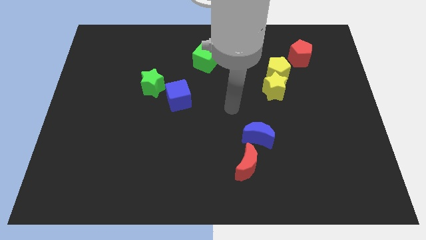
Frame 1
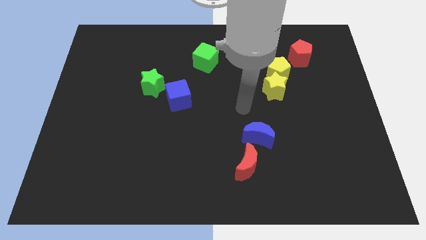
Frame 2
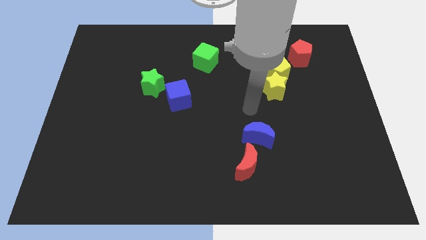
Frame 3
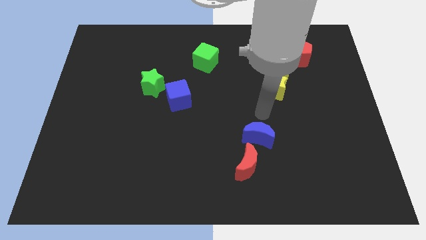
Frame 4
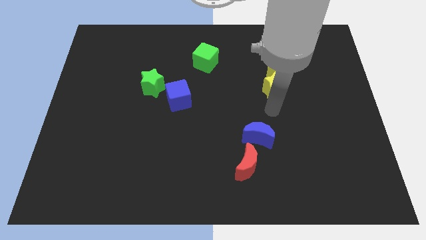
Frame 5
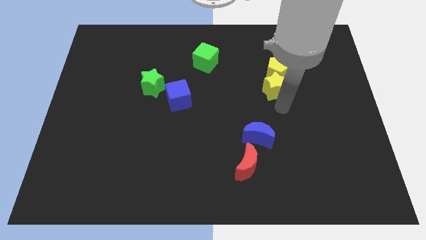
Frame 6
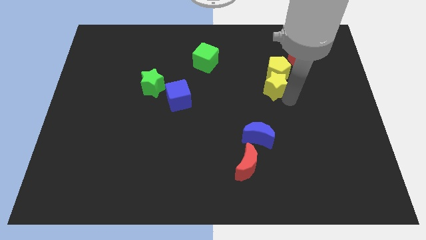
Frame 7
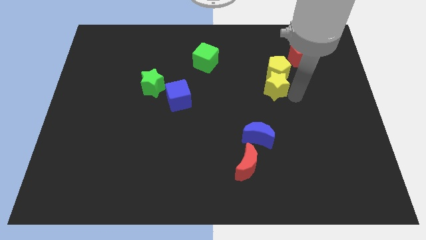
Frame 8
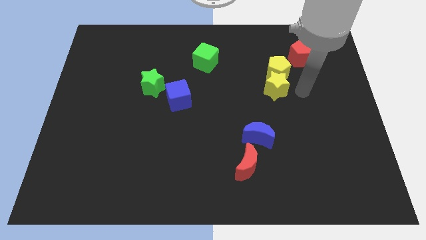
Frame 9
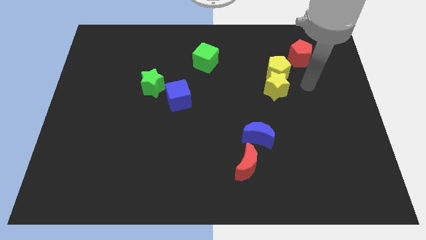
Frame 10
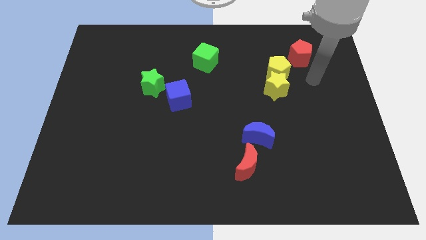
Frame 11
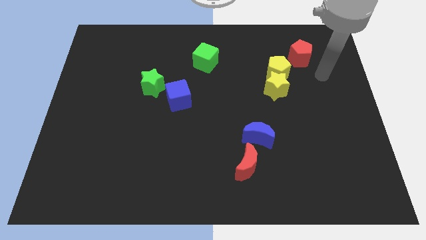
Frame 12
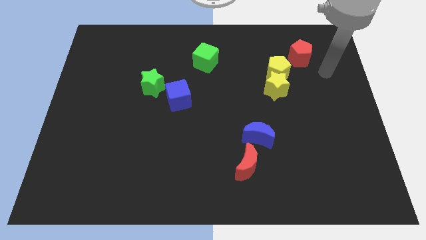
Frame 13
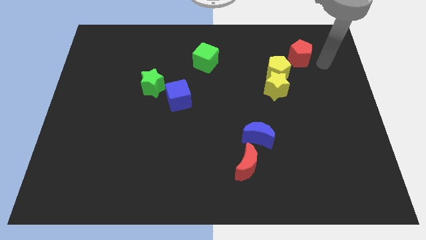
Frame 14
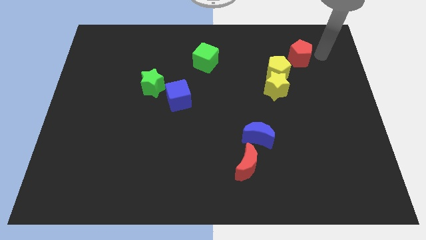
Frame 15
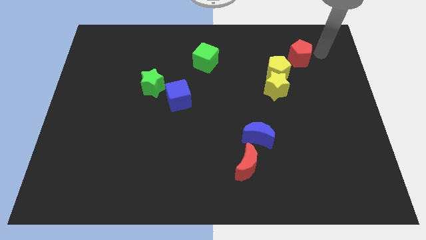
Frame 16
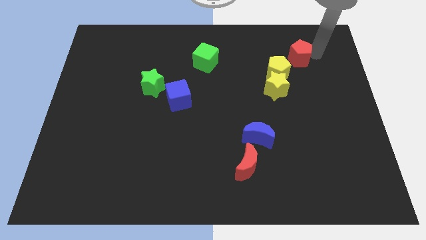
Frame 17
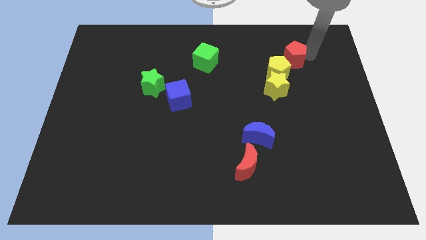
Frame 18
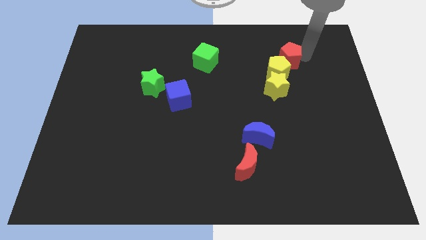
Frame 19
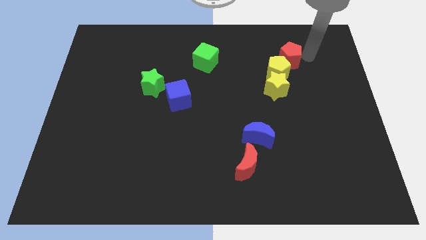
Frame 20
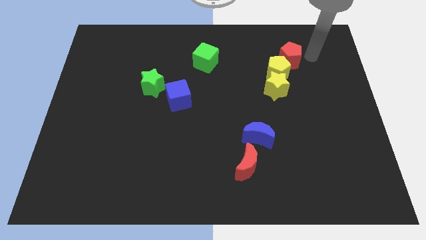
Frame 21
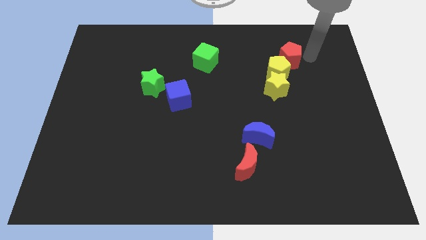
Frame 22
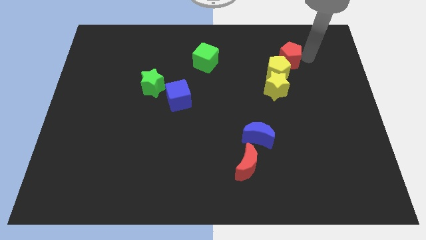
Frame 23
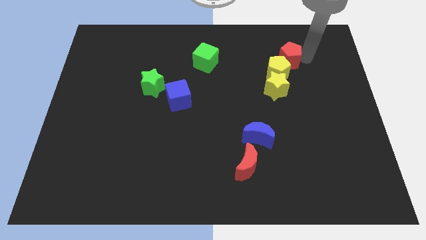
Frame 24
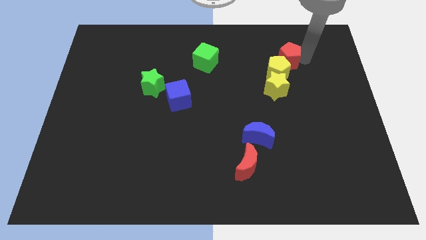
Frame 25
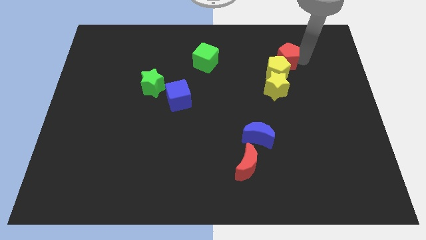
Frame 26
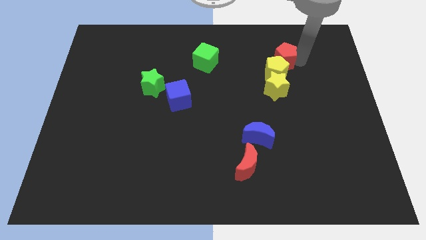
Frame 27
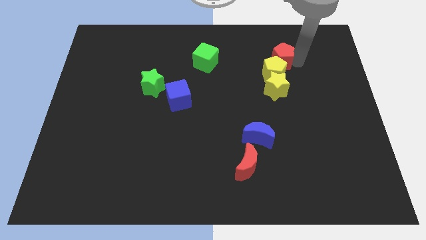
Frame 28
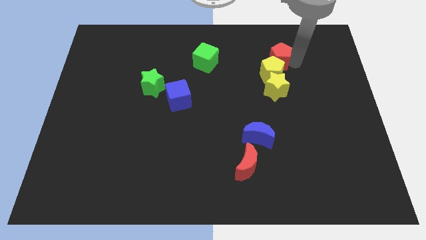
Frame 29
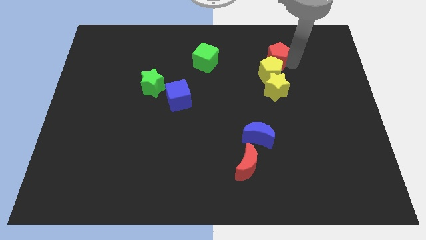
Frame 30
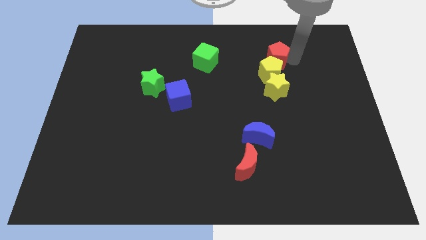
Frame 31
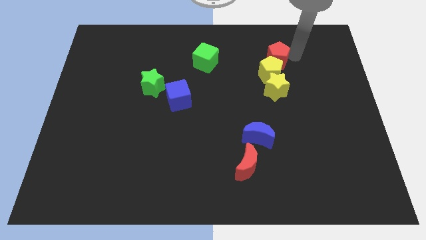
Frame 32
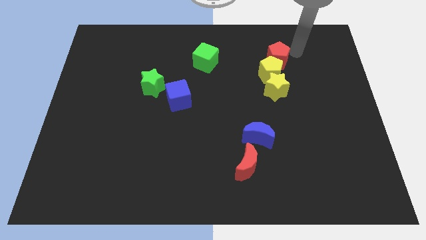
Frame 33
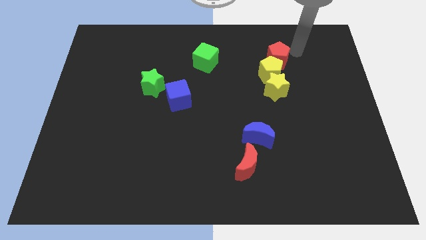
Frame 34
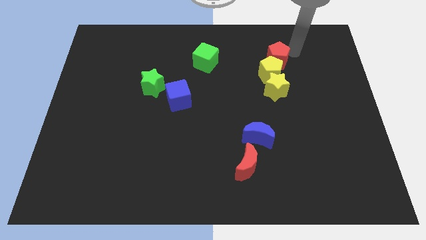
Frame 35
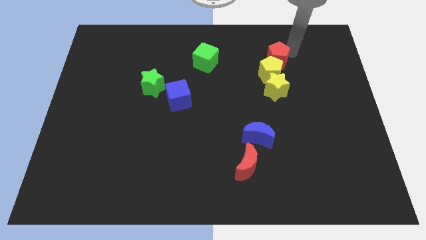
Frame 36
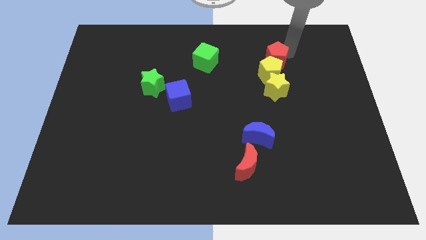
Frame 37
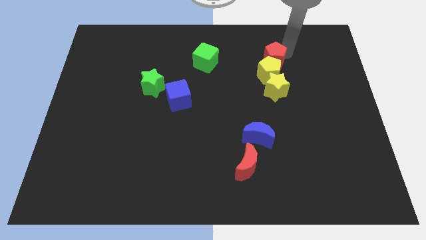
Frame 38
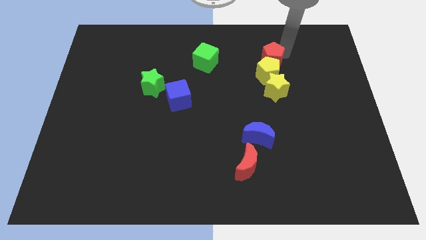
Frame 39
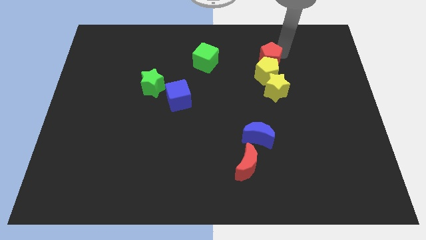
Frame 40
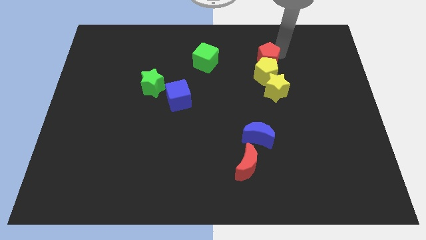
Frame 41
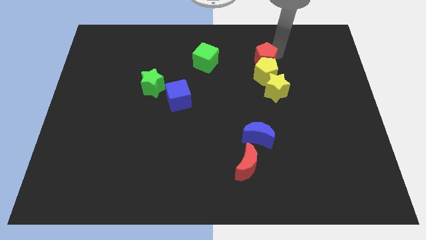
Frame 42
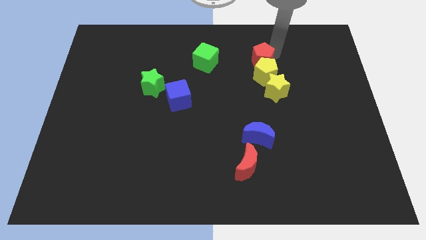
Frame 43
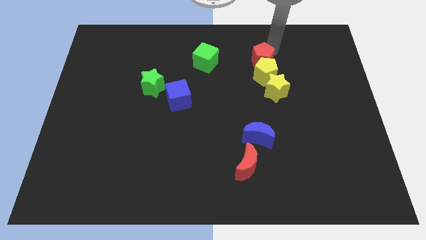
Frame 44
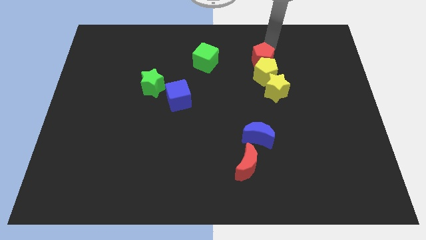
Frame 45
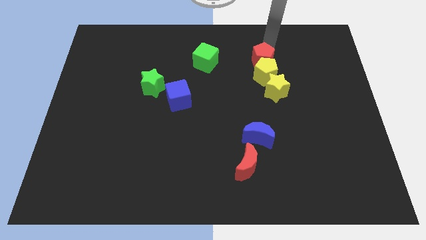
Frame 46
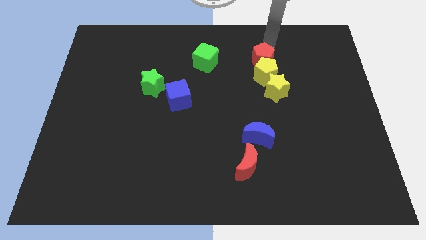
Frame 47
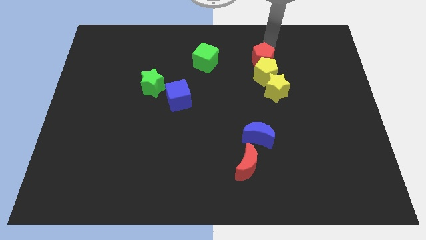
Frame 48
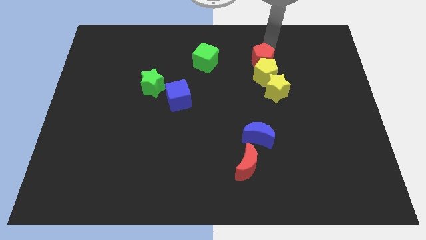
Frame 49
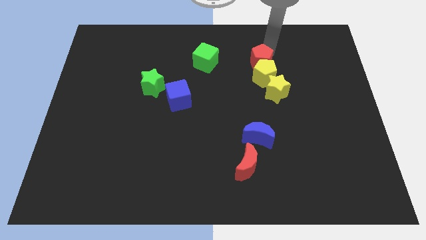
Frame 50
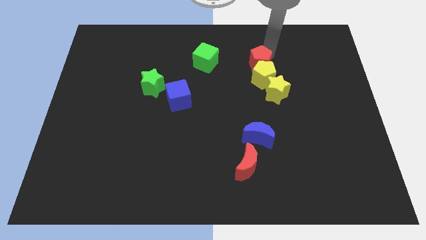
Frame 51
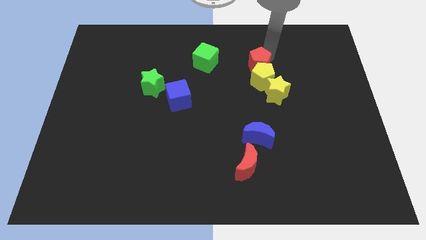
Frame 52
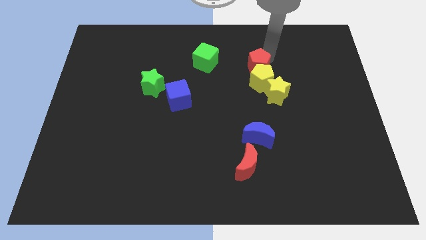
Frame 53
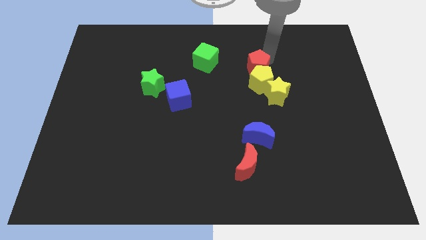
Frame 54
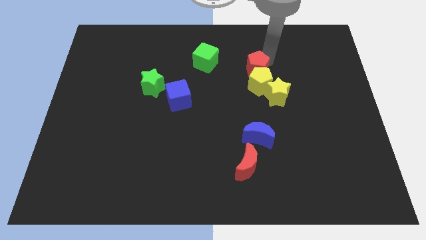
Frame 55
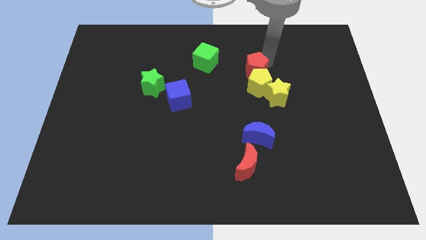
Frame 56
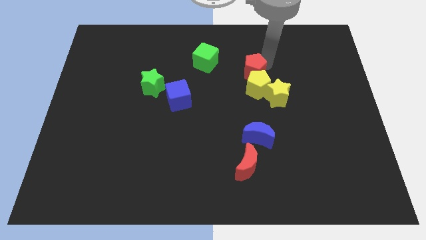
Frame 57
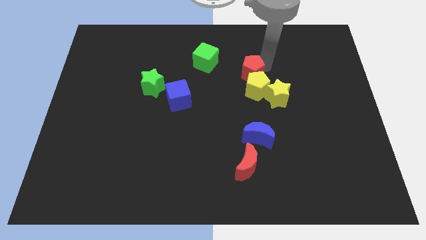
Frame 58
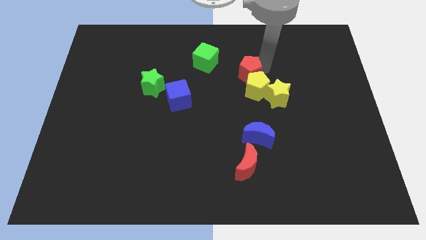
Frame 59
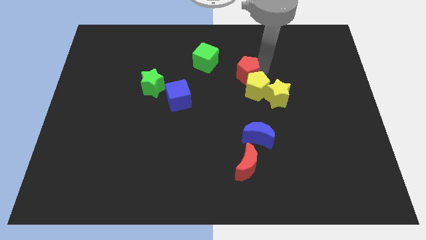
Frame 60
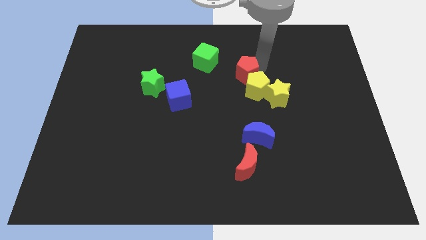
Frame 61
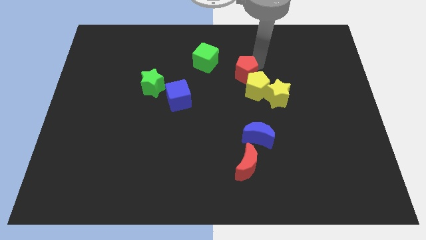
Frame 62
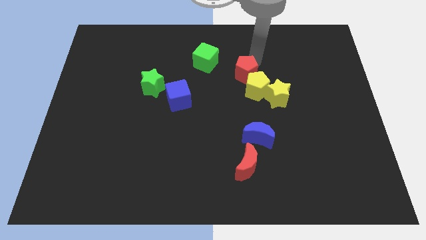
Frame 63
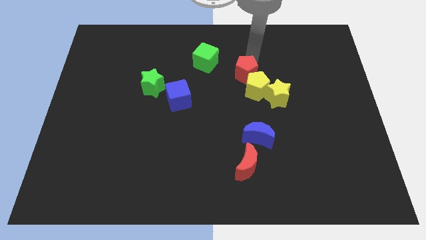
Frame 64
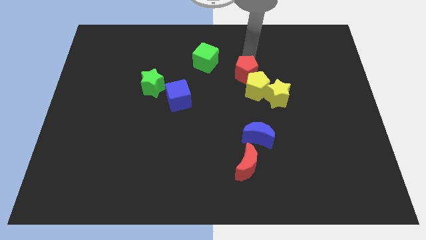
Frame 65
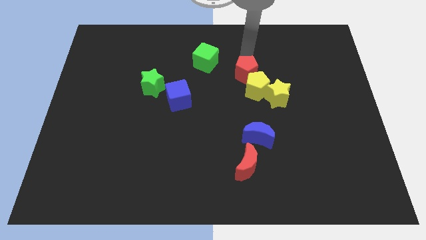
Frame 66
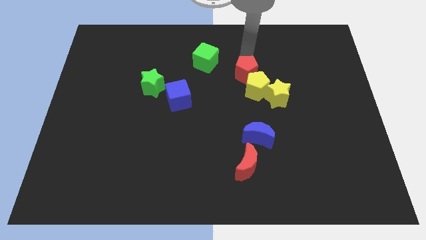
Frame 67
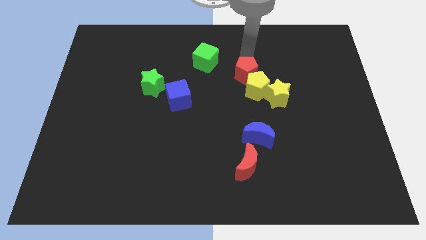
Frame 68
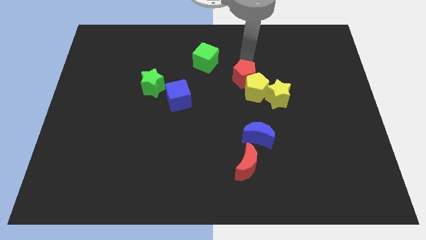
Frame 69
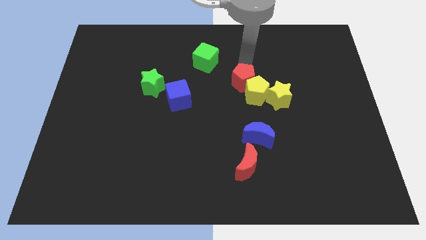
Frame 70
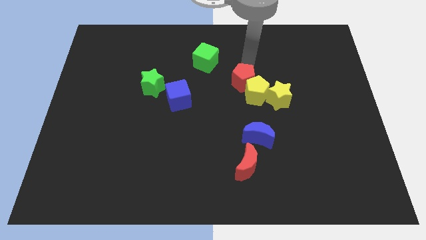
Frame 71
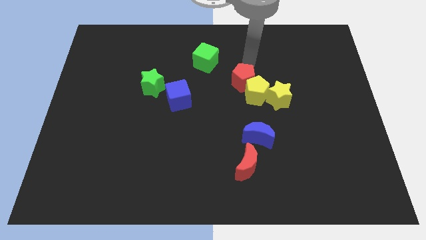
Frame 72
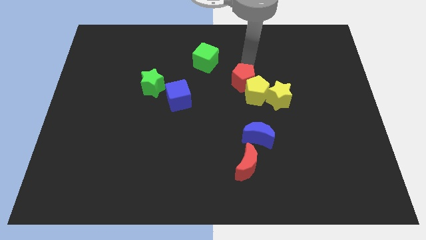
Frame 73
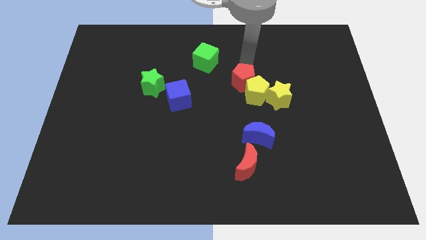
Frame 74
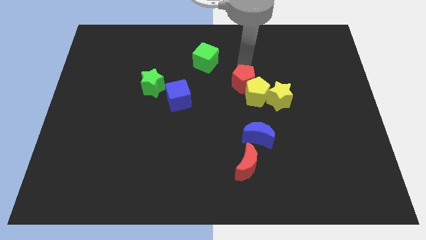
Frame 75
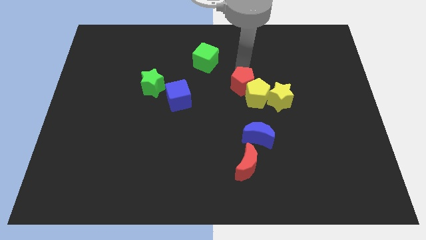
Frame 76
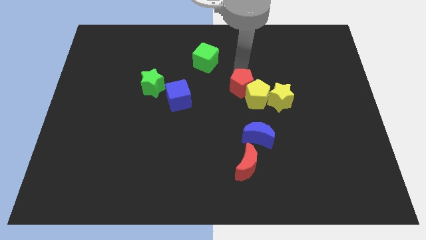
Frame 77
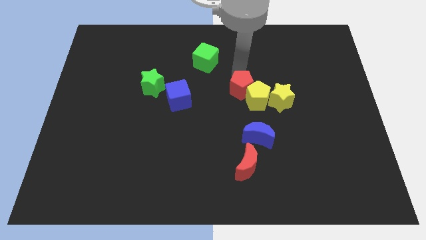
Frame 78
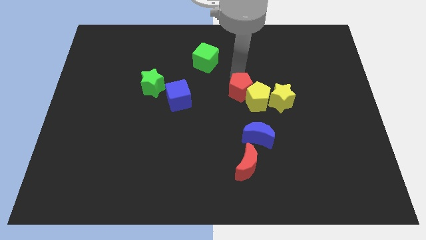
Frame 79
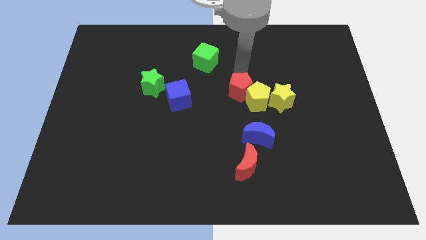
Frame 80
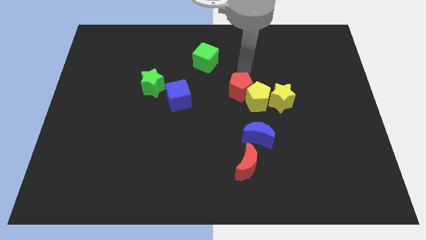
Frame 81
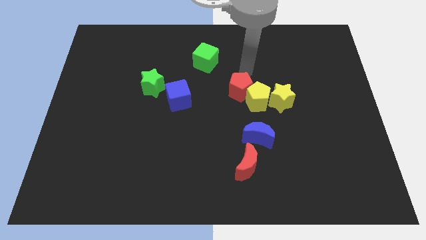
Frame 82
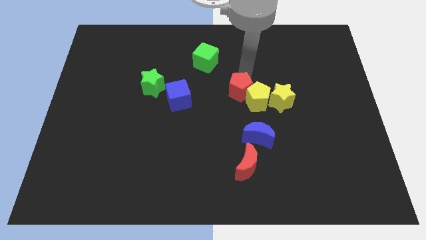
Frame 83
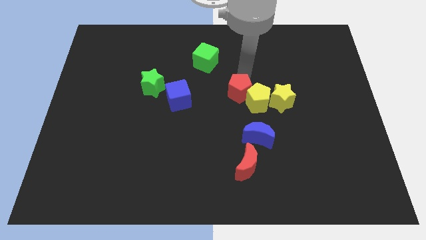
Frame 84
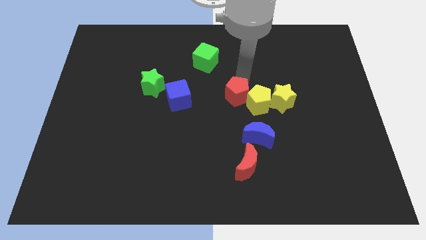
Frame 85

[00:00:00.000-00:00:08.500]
move the red pentagon diagonally down and to the left
